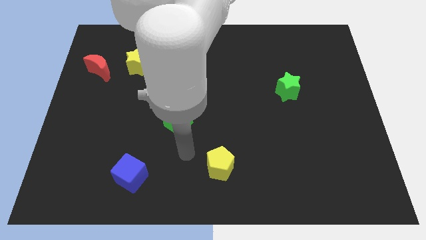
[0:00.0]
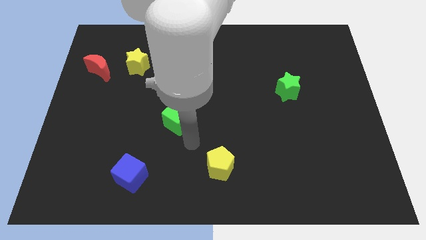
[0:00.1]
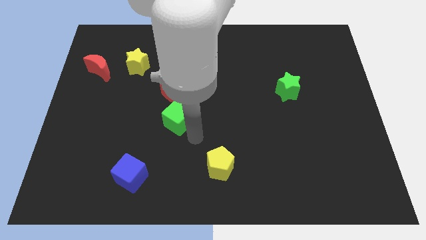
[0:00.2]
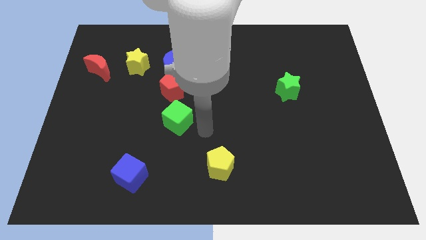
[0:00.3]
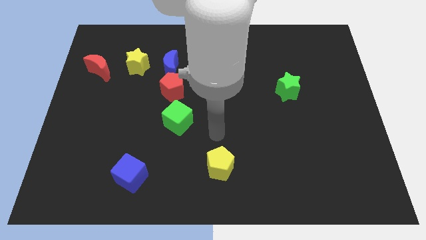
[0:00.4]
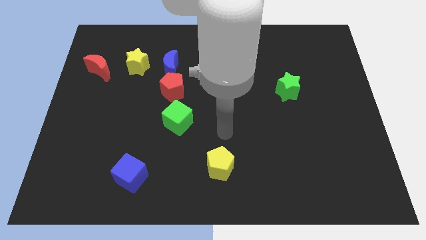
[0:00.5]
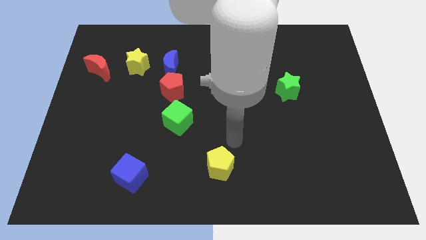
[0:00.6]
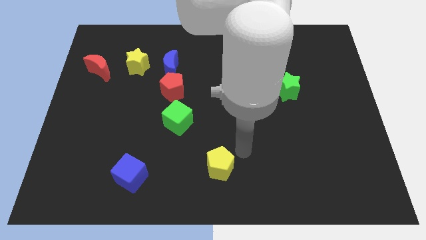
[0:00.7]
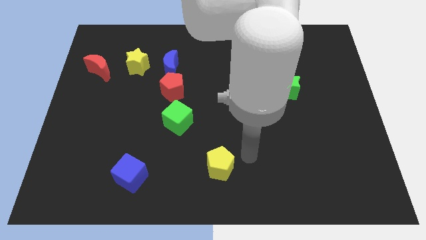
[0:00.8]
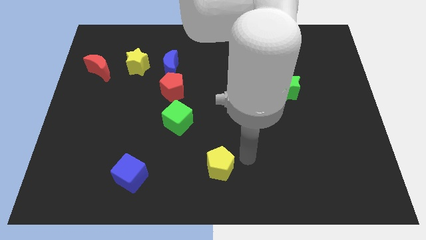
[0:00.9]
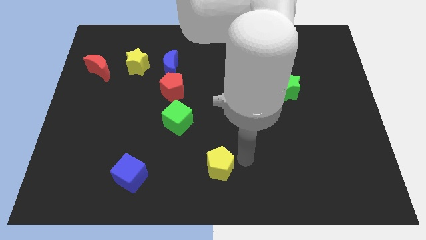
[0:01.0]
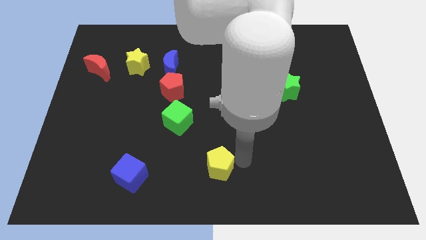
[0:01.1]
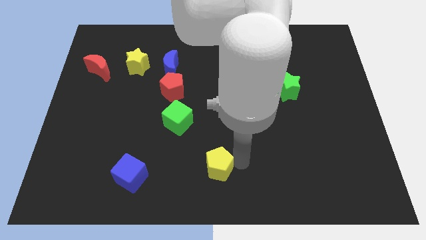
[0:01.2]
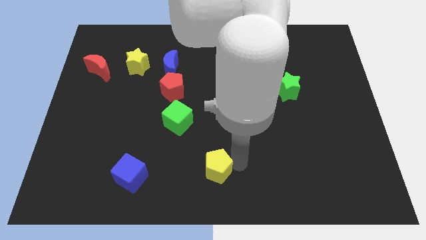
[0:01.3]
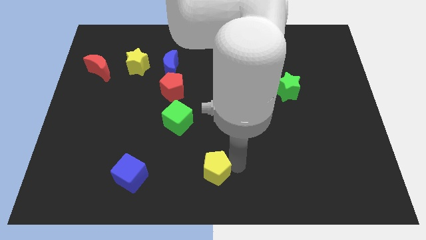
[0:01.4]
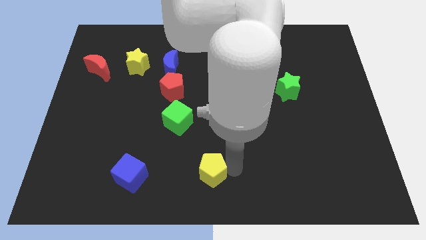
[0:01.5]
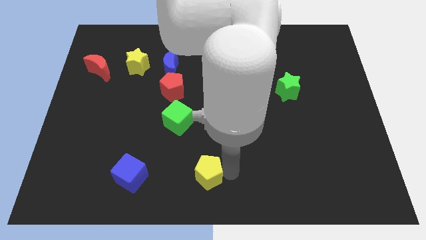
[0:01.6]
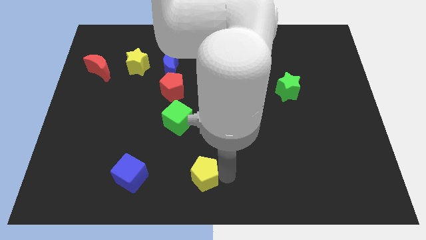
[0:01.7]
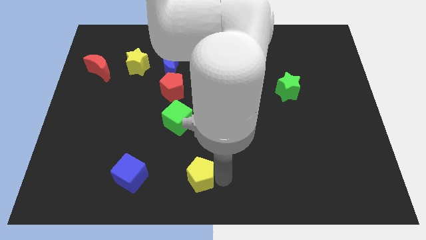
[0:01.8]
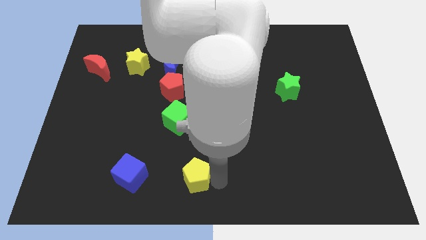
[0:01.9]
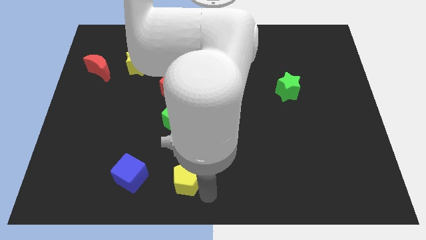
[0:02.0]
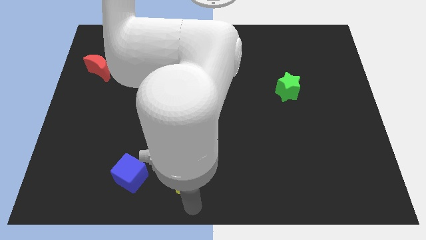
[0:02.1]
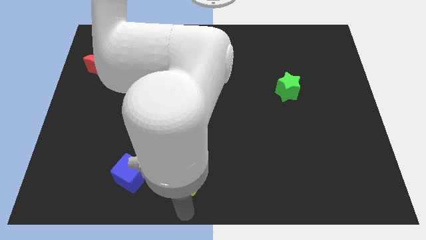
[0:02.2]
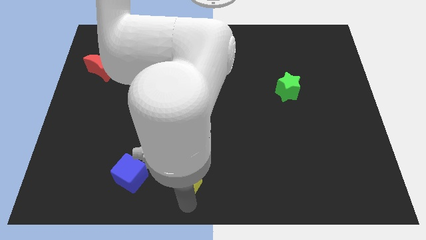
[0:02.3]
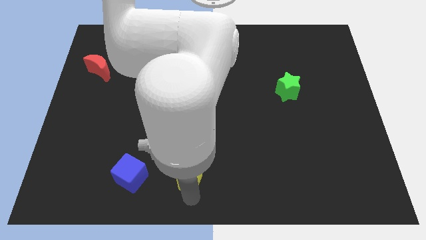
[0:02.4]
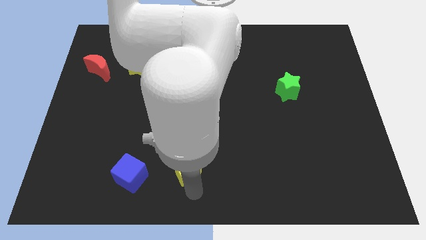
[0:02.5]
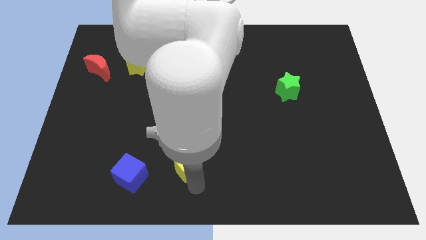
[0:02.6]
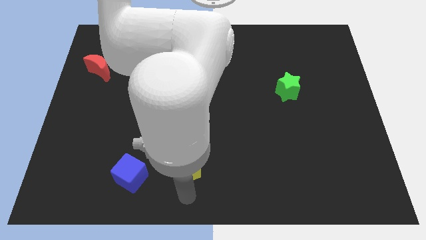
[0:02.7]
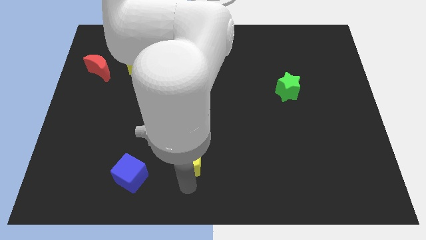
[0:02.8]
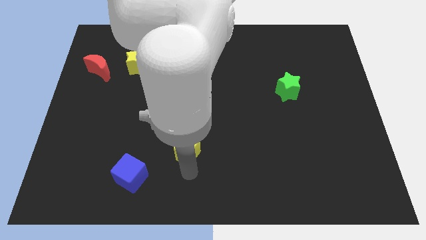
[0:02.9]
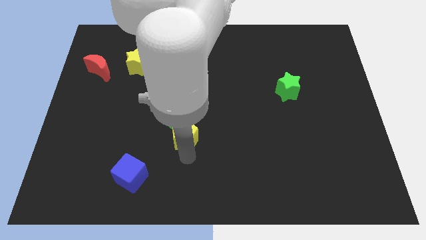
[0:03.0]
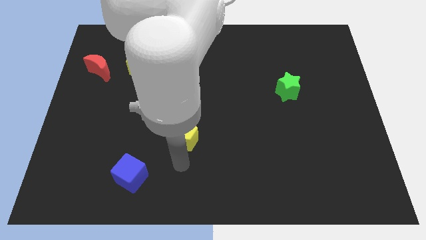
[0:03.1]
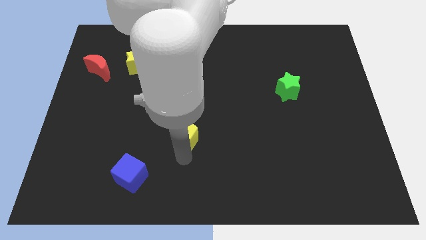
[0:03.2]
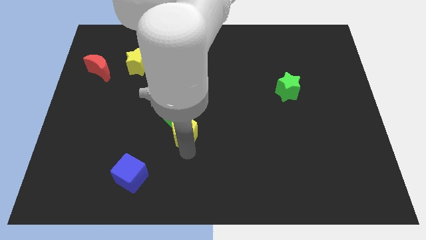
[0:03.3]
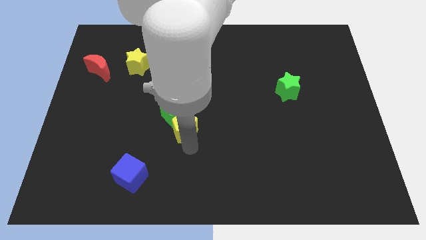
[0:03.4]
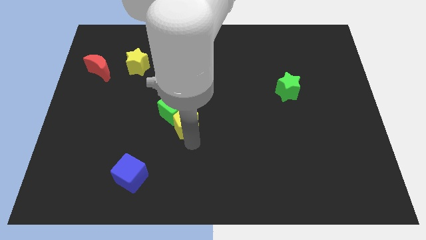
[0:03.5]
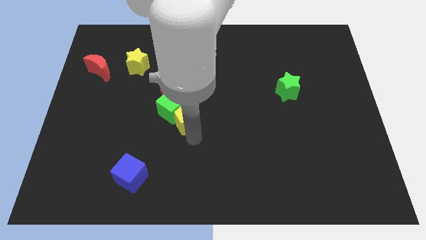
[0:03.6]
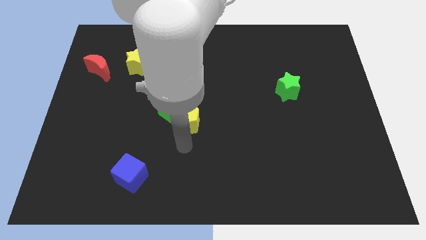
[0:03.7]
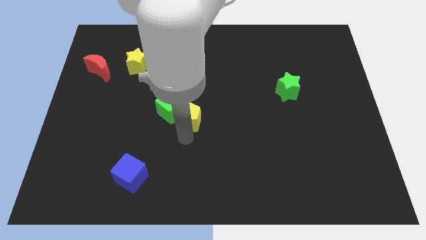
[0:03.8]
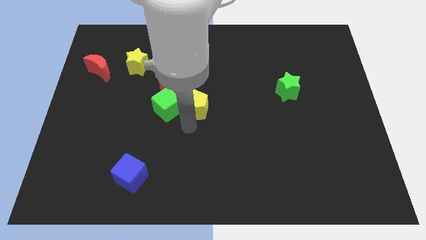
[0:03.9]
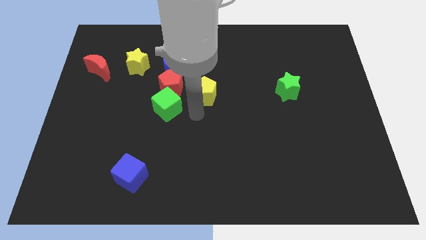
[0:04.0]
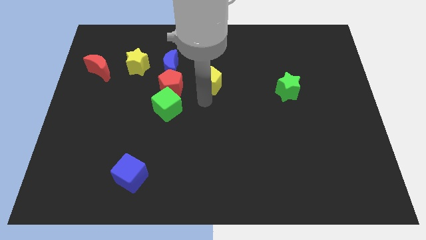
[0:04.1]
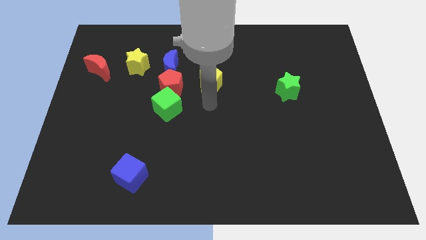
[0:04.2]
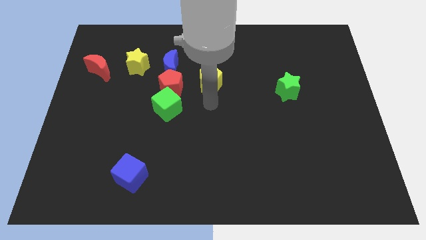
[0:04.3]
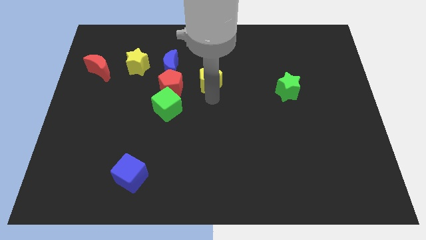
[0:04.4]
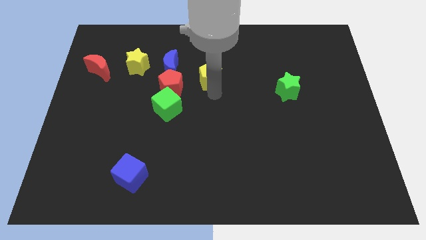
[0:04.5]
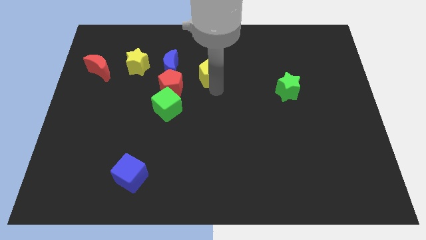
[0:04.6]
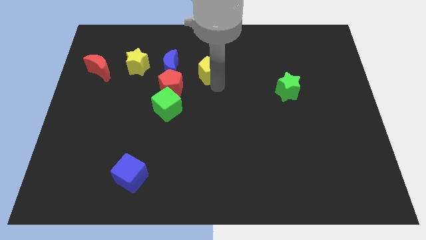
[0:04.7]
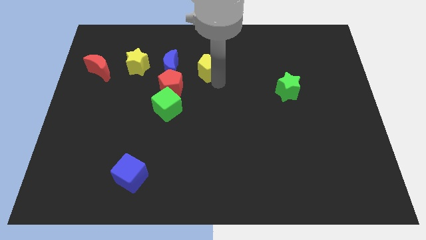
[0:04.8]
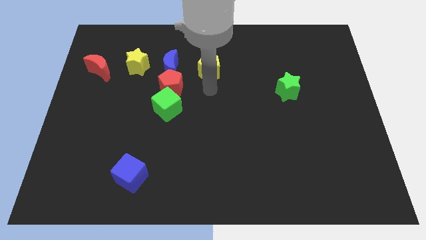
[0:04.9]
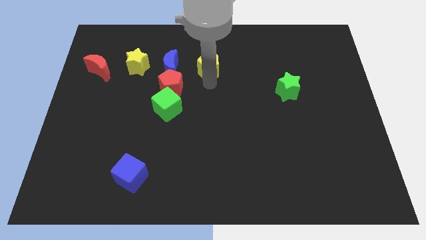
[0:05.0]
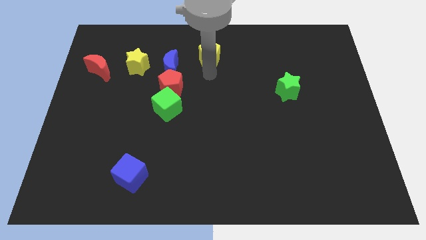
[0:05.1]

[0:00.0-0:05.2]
slide the yellow pentagon to the top

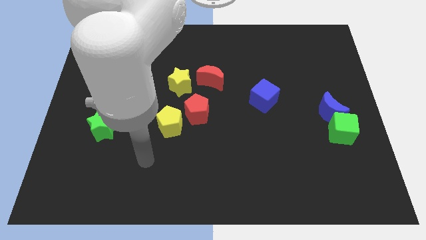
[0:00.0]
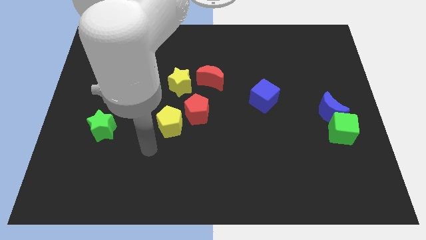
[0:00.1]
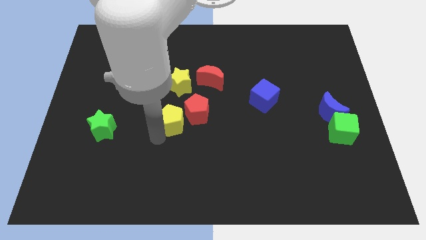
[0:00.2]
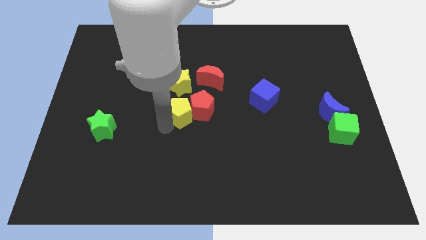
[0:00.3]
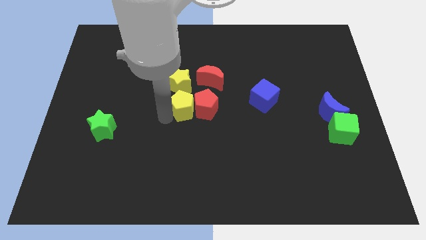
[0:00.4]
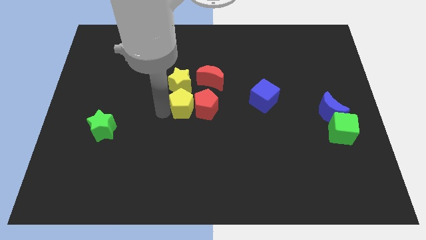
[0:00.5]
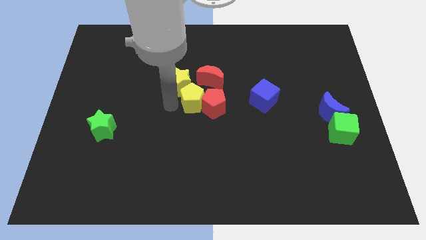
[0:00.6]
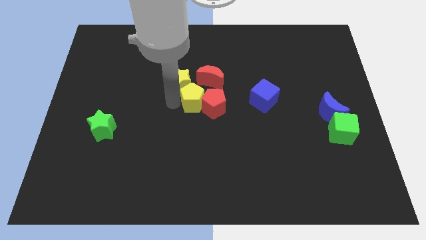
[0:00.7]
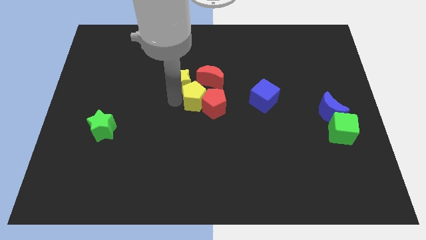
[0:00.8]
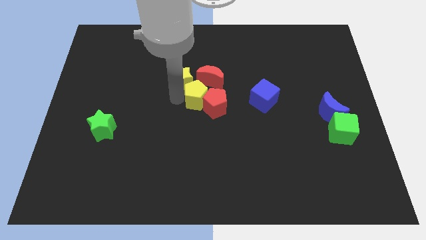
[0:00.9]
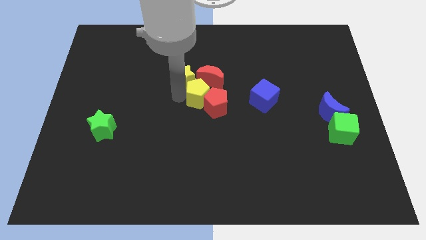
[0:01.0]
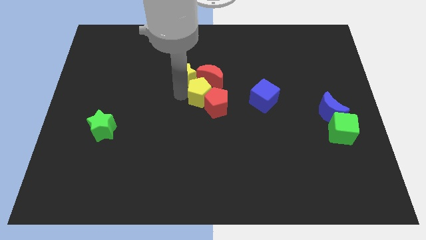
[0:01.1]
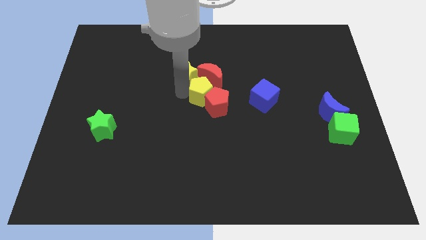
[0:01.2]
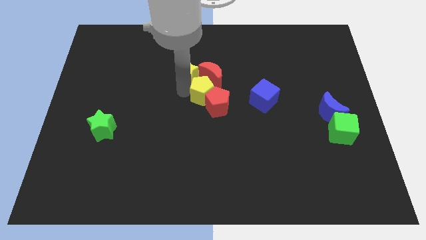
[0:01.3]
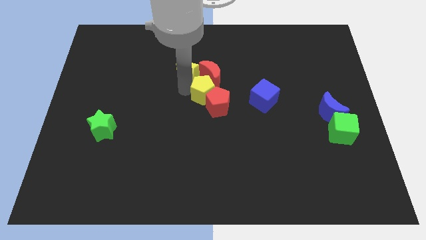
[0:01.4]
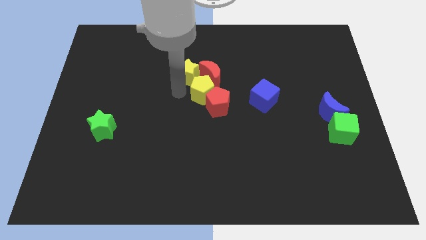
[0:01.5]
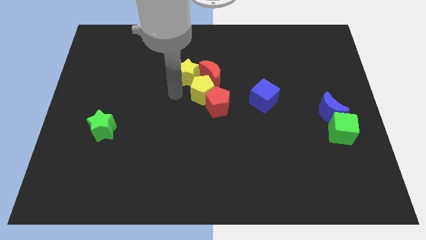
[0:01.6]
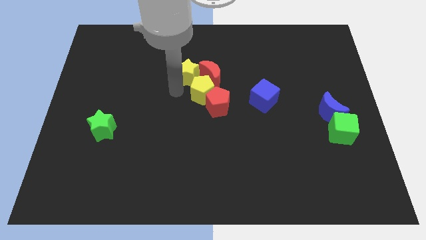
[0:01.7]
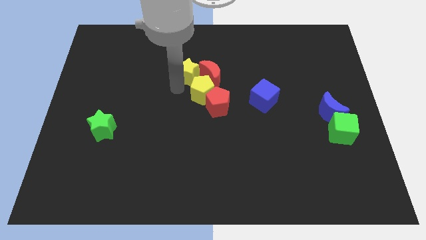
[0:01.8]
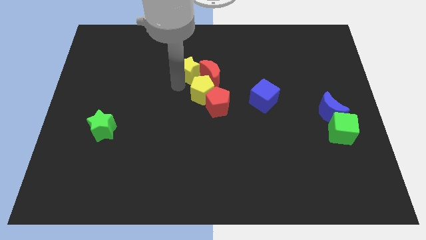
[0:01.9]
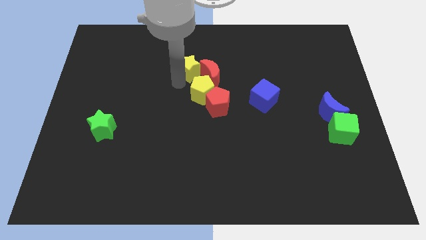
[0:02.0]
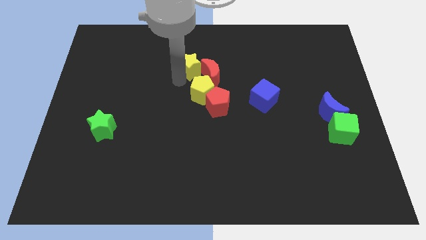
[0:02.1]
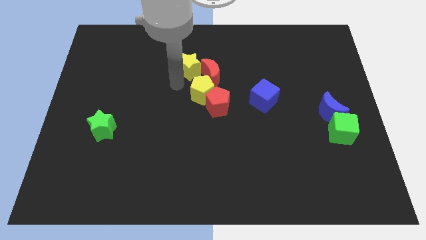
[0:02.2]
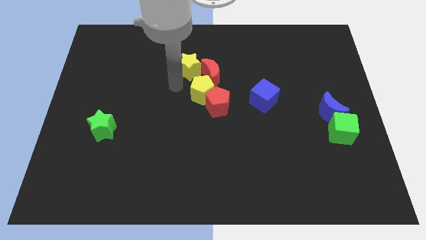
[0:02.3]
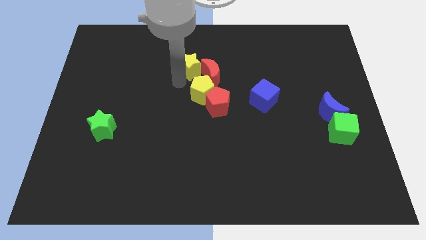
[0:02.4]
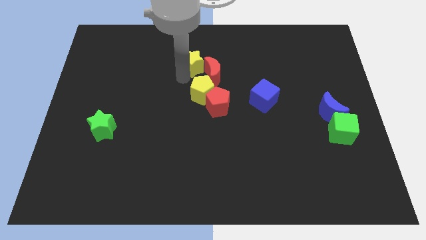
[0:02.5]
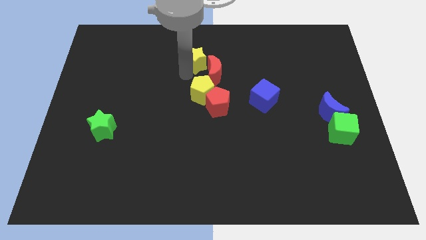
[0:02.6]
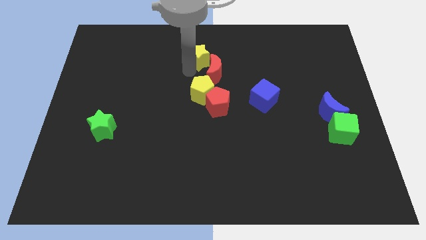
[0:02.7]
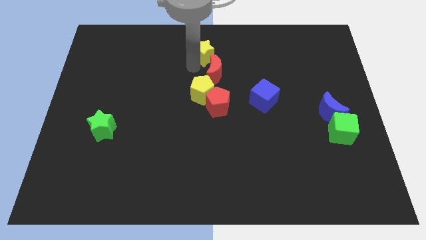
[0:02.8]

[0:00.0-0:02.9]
push the yellow star to the towards your base
